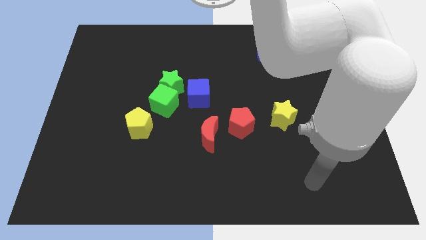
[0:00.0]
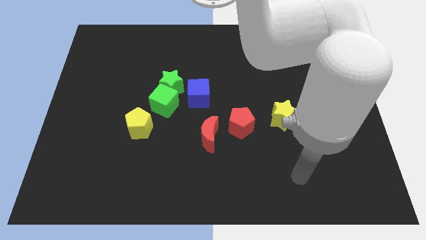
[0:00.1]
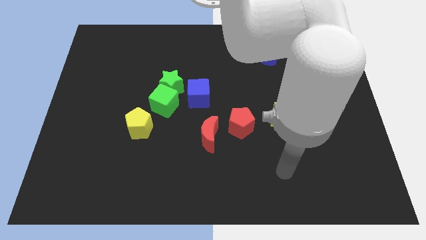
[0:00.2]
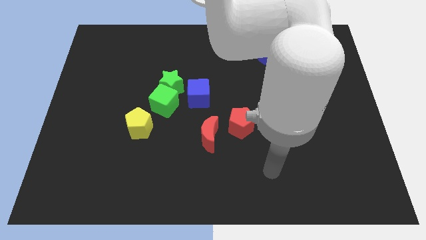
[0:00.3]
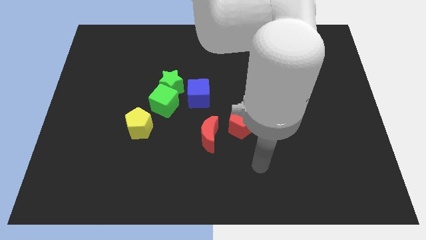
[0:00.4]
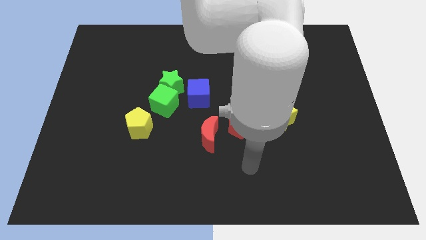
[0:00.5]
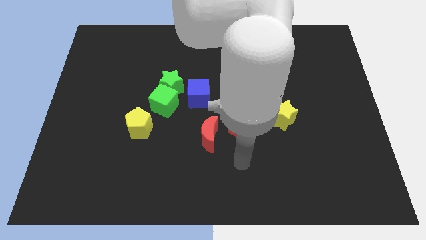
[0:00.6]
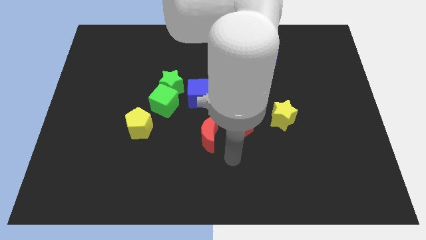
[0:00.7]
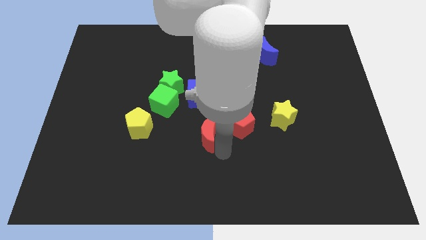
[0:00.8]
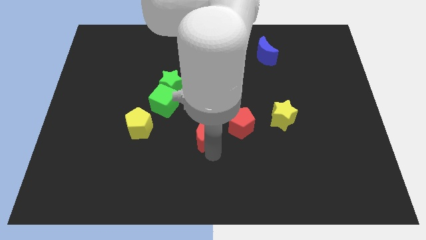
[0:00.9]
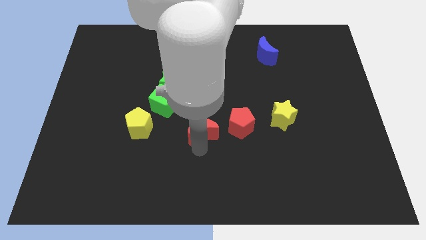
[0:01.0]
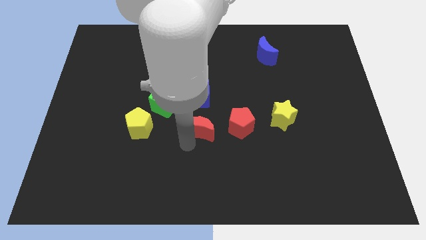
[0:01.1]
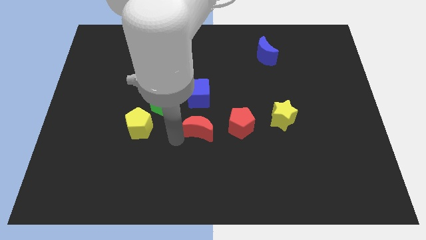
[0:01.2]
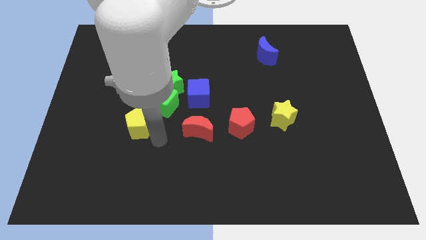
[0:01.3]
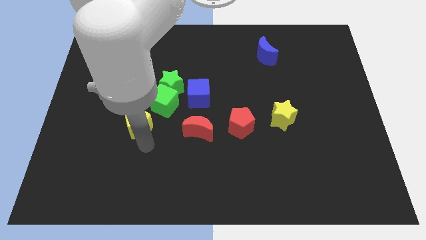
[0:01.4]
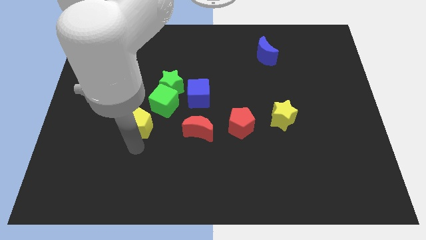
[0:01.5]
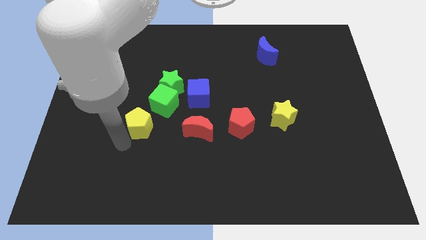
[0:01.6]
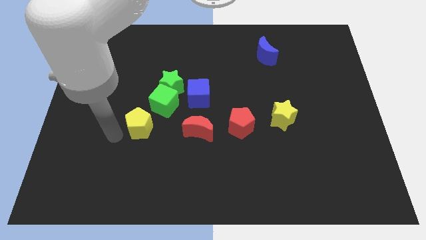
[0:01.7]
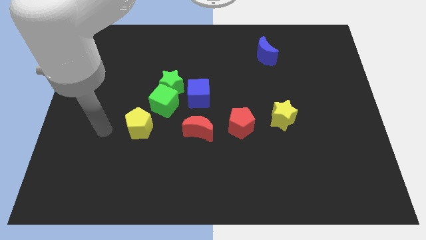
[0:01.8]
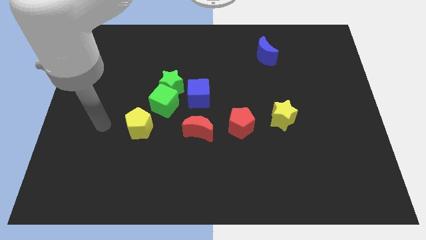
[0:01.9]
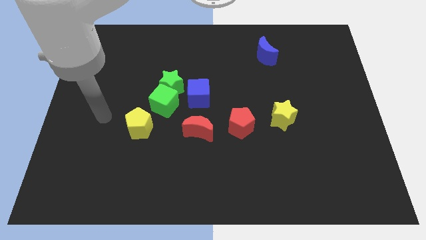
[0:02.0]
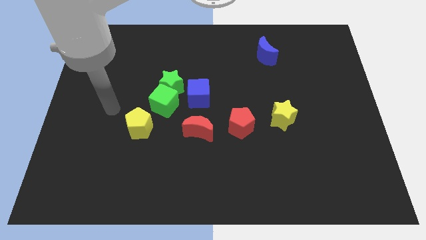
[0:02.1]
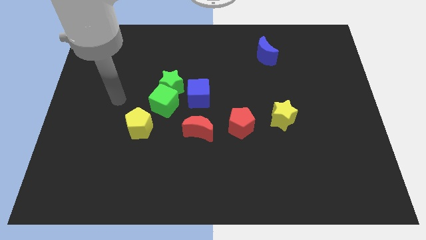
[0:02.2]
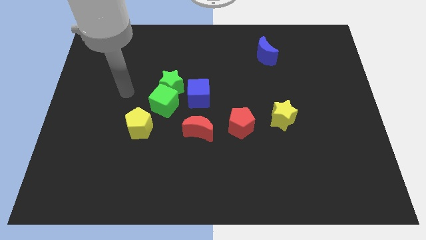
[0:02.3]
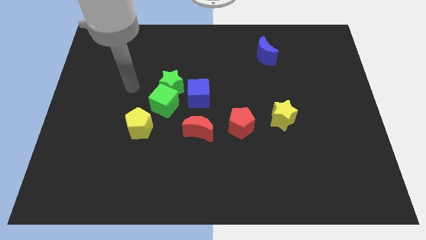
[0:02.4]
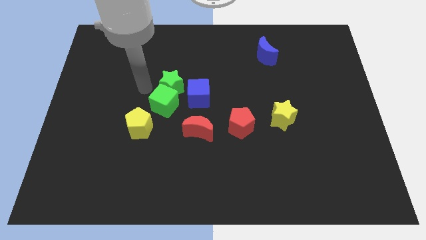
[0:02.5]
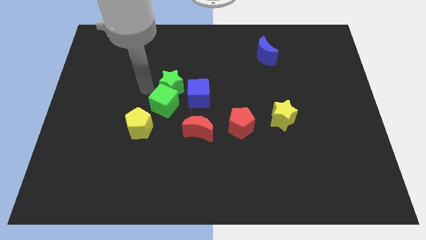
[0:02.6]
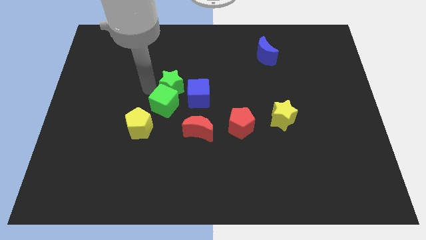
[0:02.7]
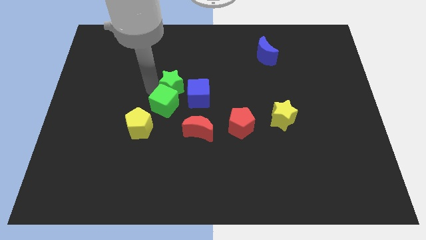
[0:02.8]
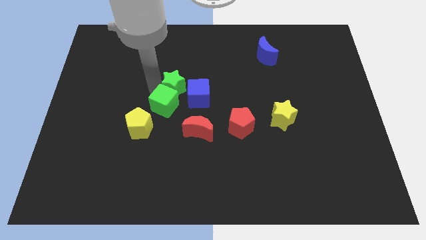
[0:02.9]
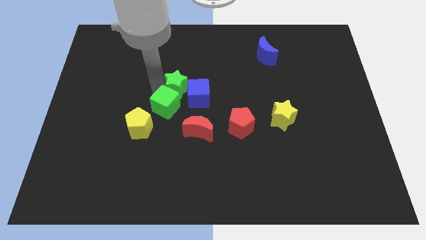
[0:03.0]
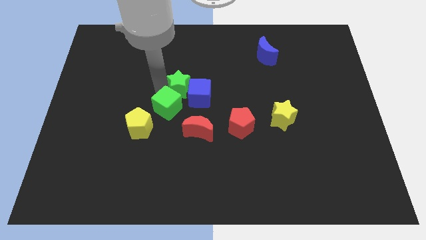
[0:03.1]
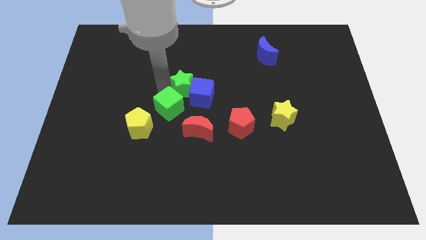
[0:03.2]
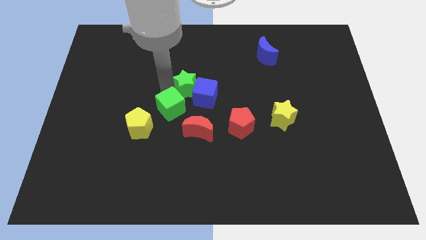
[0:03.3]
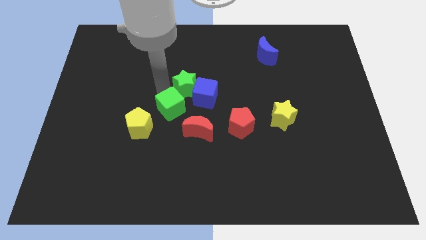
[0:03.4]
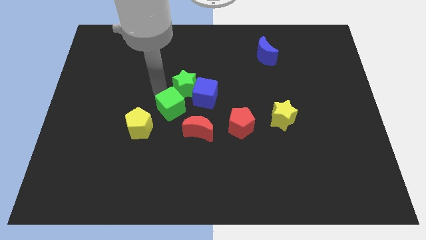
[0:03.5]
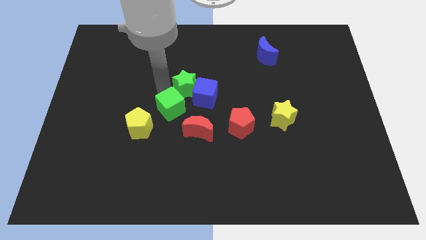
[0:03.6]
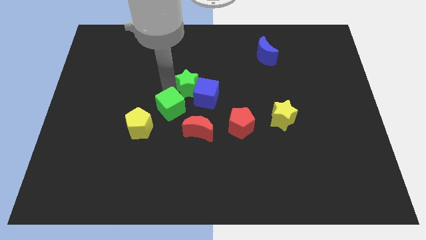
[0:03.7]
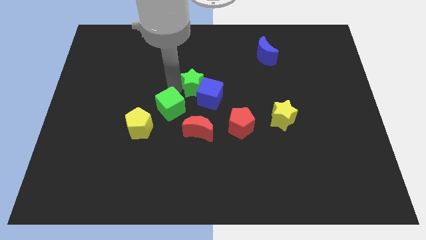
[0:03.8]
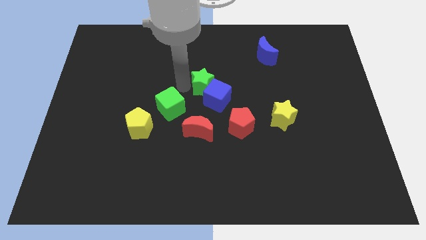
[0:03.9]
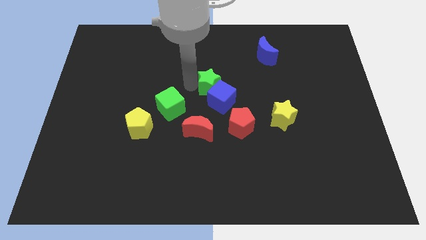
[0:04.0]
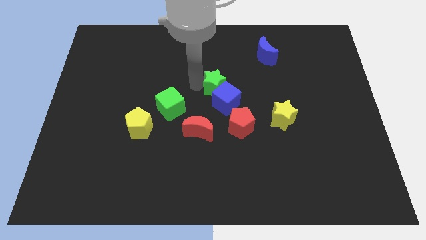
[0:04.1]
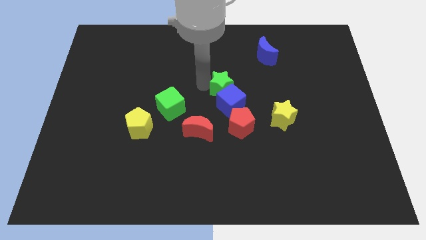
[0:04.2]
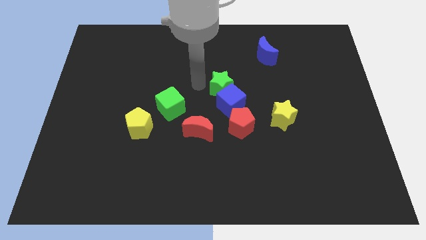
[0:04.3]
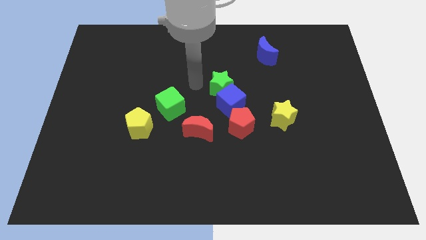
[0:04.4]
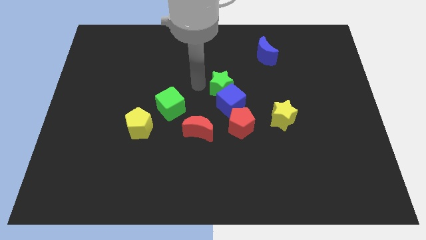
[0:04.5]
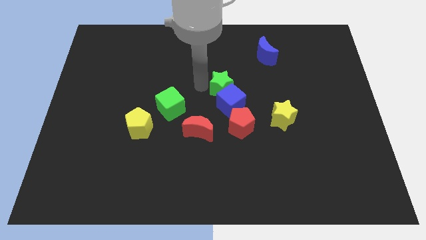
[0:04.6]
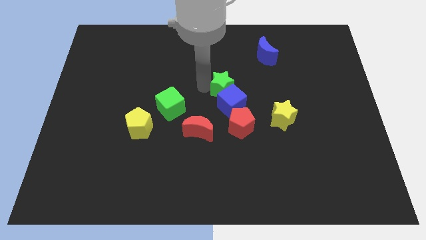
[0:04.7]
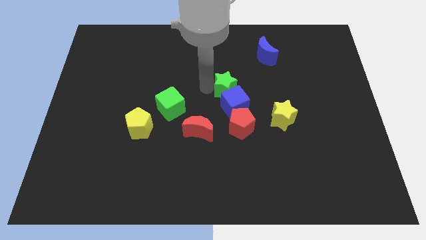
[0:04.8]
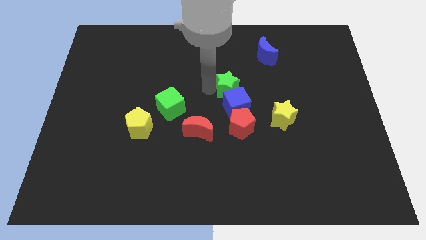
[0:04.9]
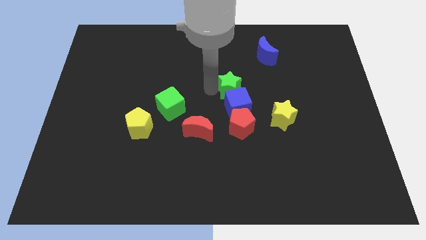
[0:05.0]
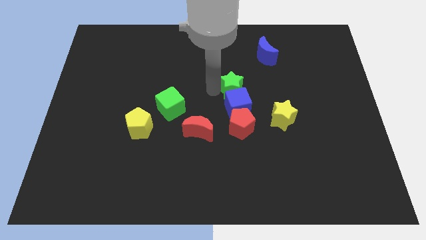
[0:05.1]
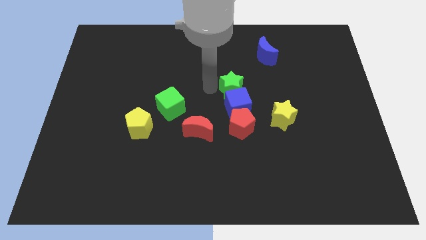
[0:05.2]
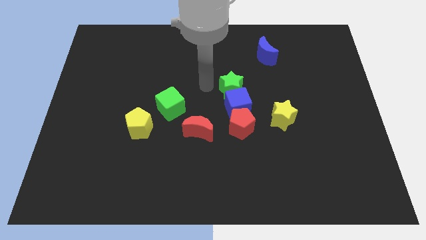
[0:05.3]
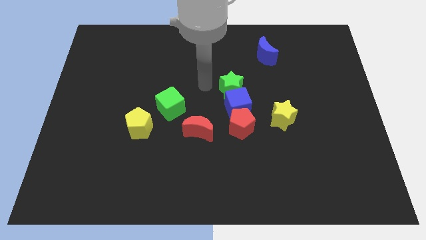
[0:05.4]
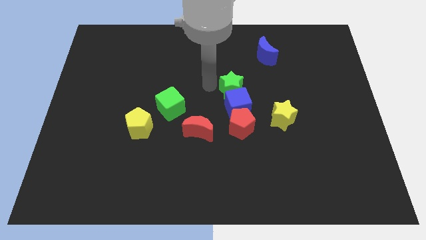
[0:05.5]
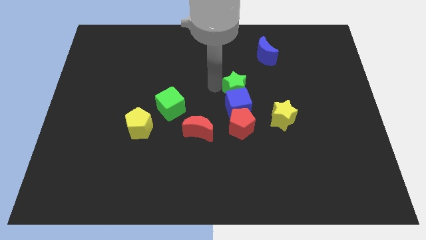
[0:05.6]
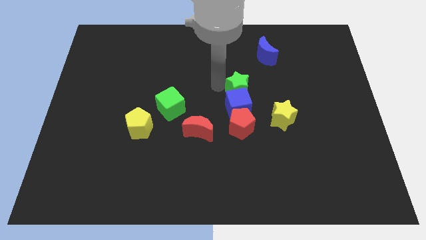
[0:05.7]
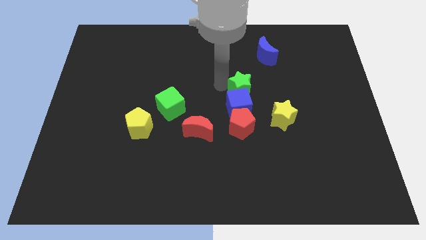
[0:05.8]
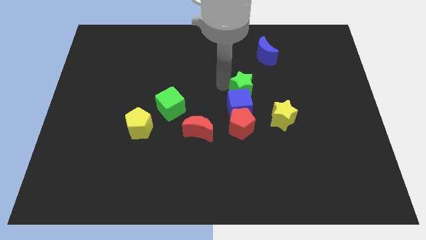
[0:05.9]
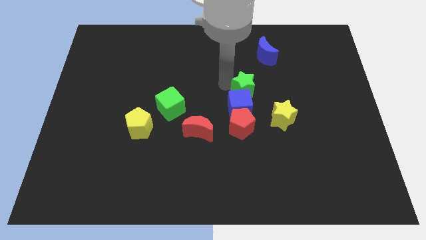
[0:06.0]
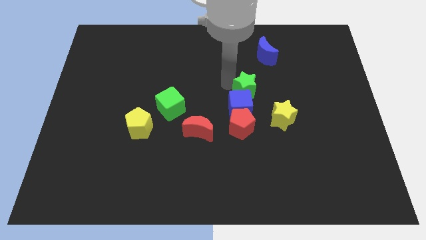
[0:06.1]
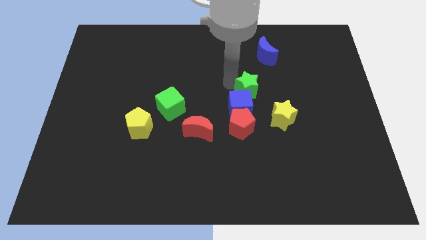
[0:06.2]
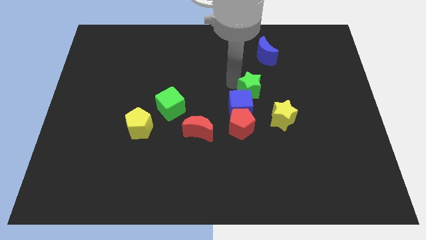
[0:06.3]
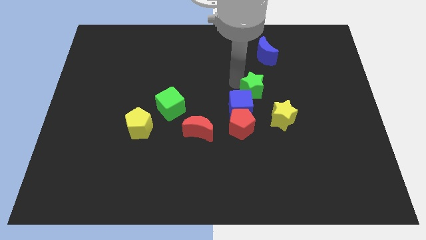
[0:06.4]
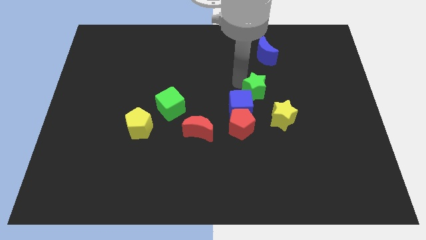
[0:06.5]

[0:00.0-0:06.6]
move the green star to the right

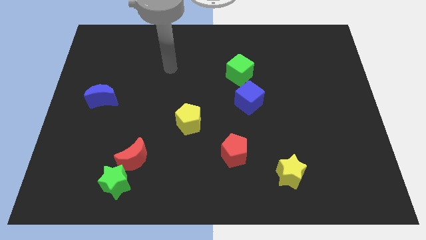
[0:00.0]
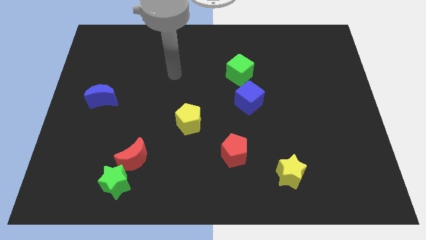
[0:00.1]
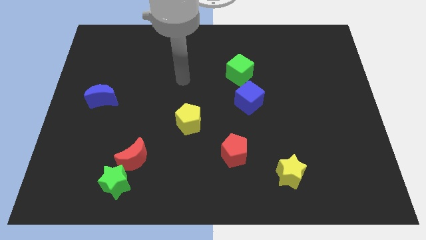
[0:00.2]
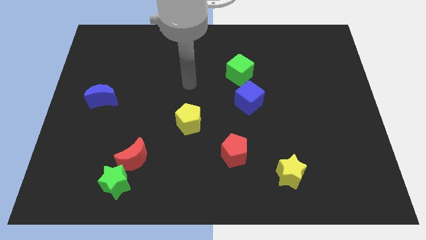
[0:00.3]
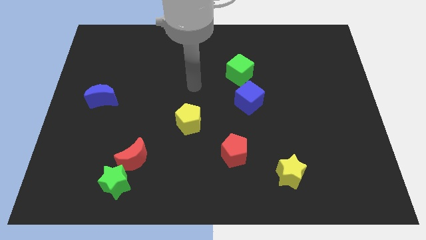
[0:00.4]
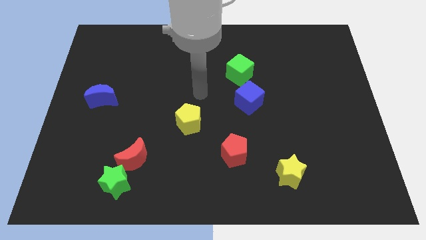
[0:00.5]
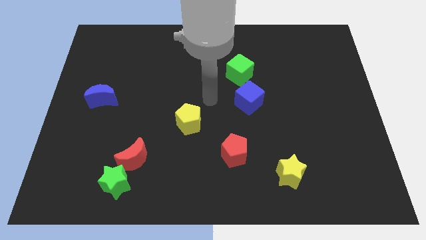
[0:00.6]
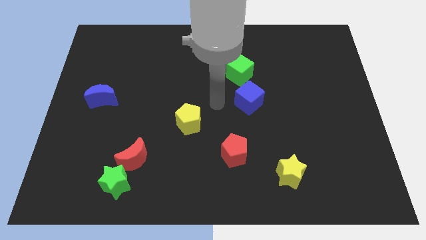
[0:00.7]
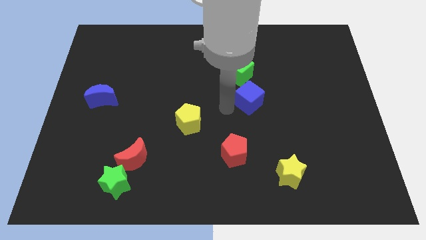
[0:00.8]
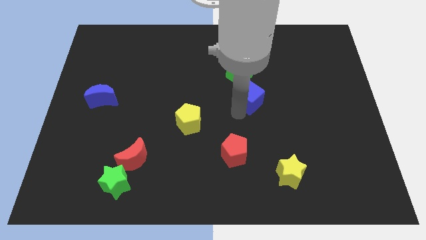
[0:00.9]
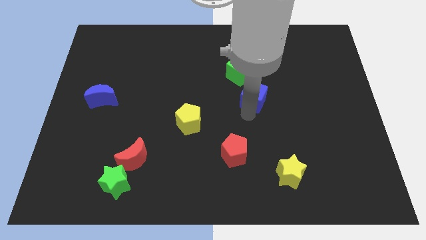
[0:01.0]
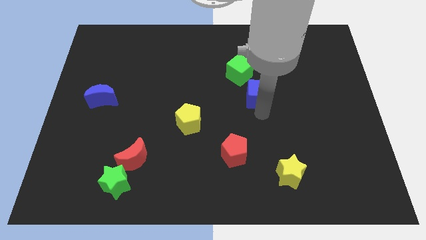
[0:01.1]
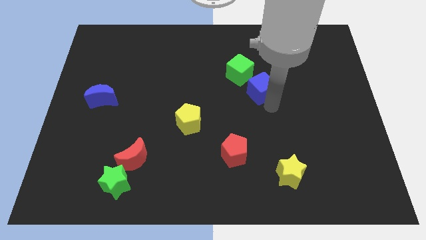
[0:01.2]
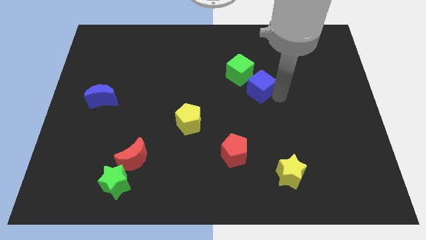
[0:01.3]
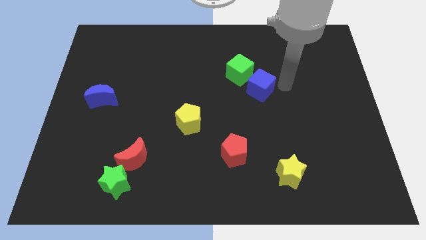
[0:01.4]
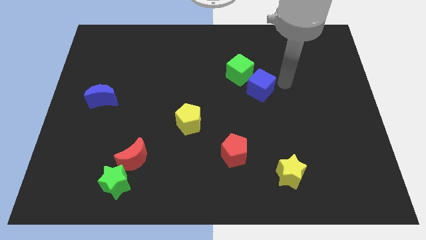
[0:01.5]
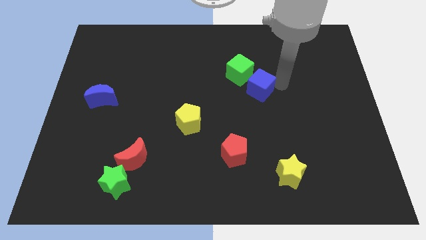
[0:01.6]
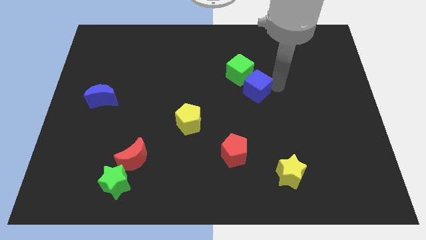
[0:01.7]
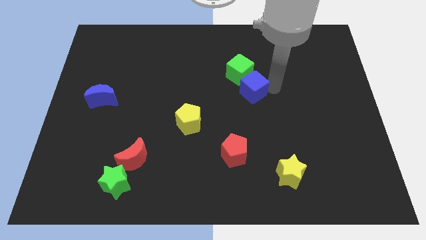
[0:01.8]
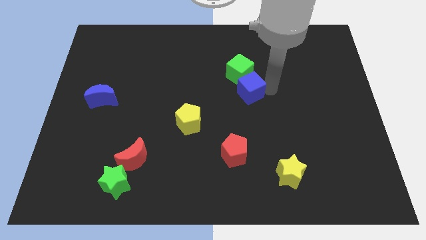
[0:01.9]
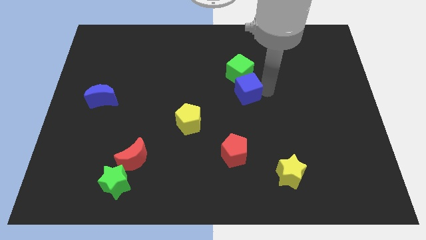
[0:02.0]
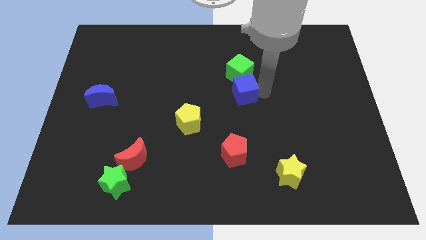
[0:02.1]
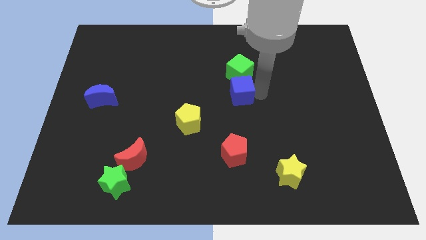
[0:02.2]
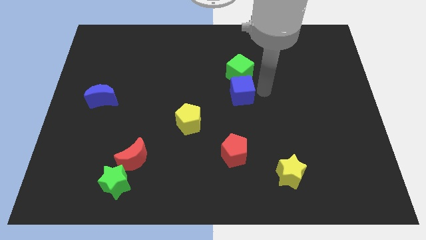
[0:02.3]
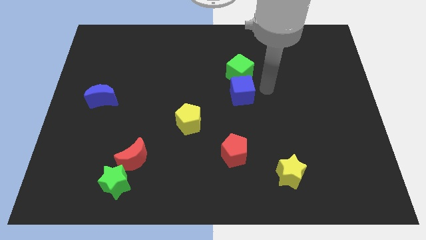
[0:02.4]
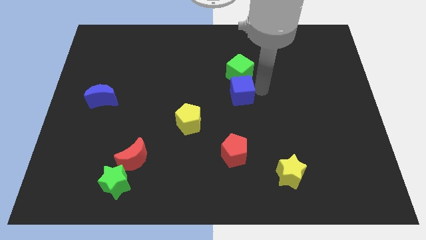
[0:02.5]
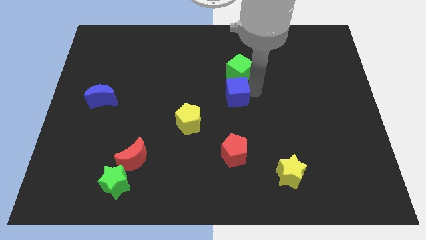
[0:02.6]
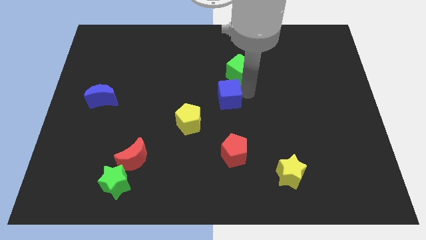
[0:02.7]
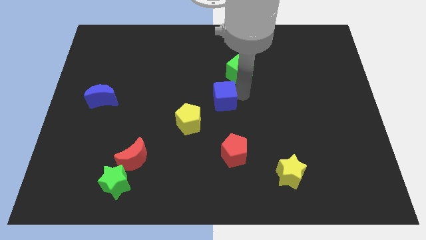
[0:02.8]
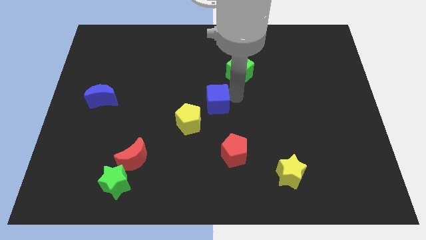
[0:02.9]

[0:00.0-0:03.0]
move the blue cube a little bit to the left
